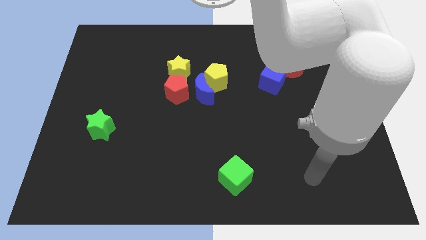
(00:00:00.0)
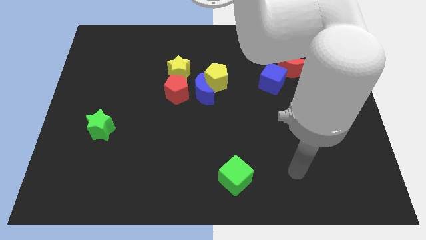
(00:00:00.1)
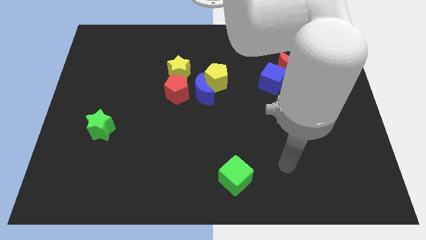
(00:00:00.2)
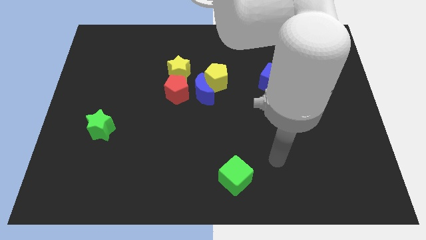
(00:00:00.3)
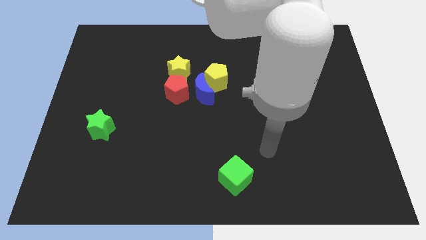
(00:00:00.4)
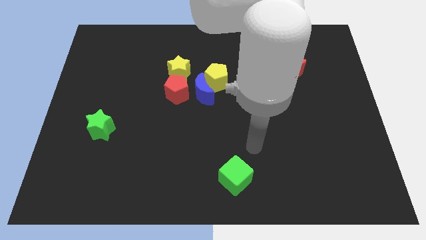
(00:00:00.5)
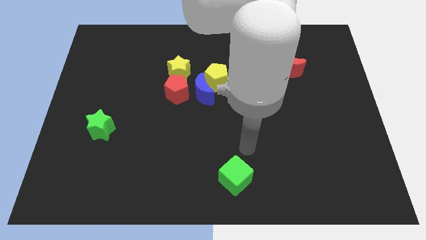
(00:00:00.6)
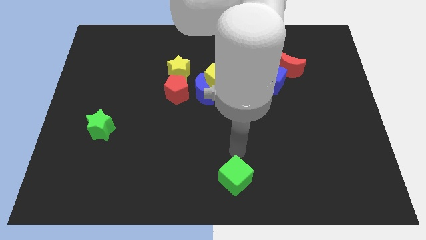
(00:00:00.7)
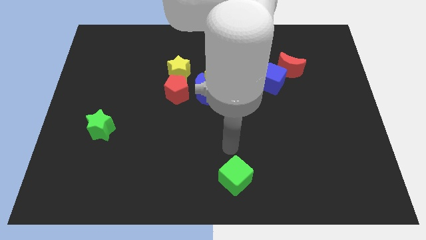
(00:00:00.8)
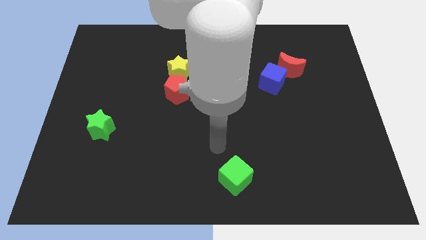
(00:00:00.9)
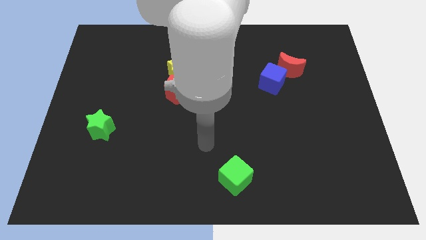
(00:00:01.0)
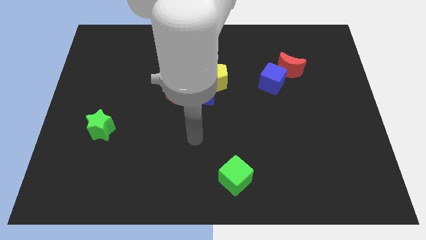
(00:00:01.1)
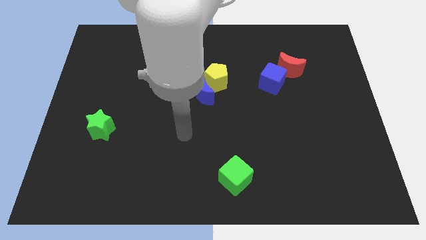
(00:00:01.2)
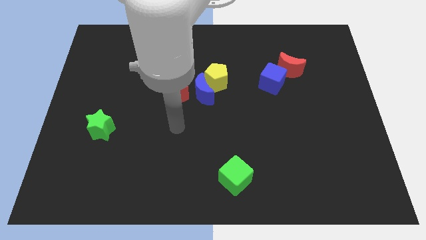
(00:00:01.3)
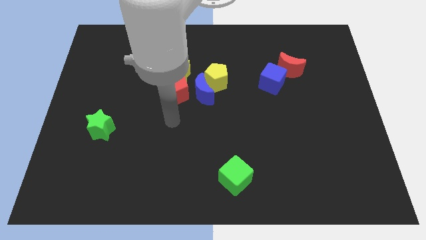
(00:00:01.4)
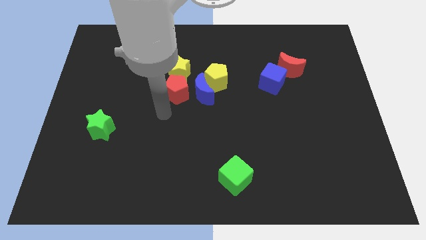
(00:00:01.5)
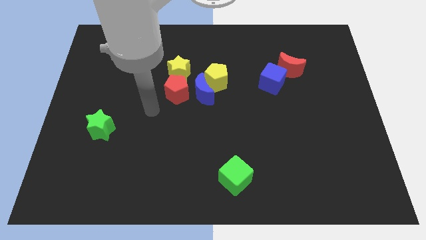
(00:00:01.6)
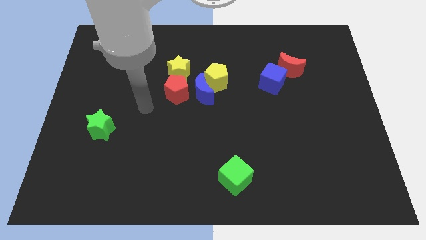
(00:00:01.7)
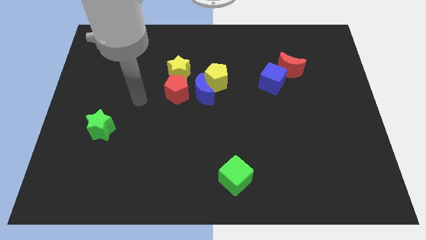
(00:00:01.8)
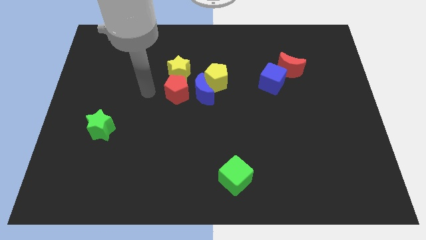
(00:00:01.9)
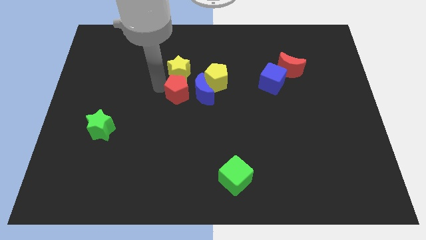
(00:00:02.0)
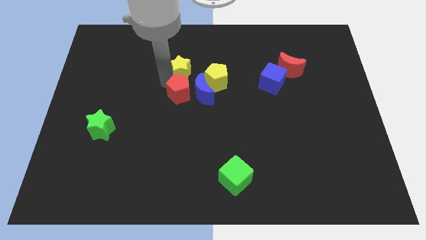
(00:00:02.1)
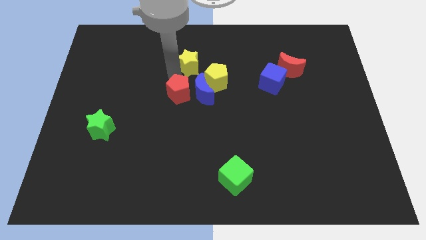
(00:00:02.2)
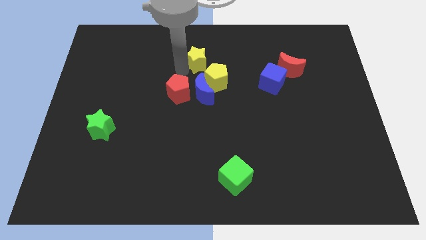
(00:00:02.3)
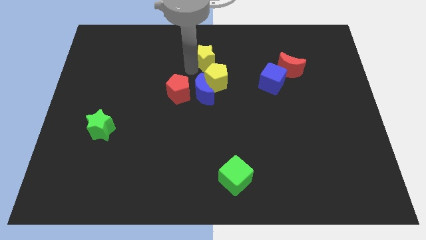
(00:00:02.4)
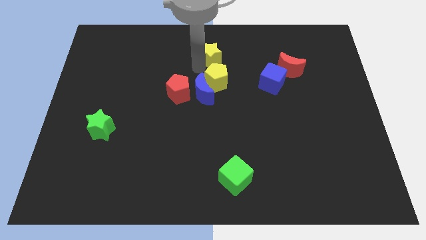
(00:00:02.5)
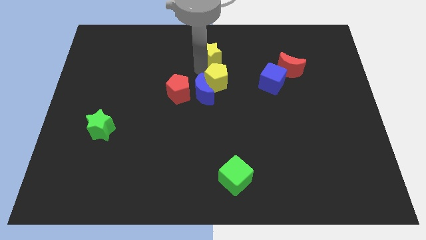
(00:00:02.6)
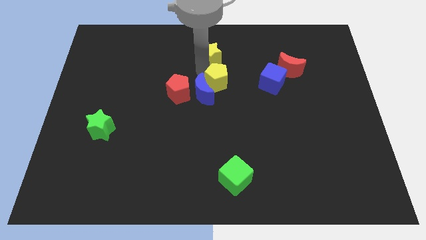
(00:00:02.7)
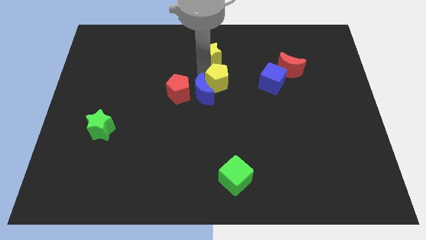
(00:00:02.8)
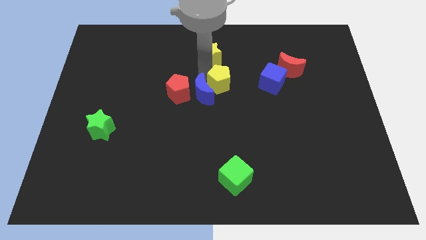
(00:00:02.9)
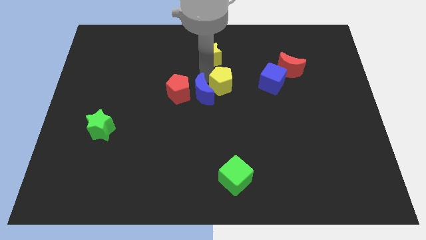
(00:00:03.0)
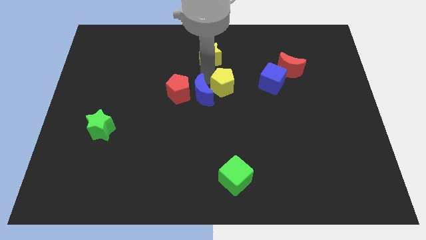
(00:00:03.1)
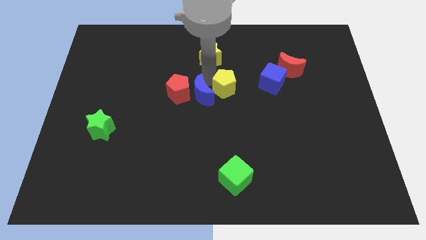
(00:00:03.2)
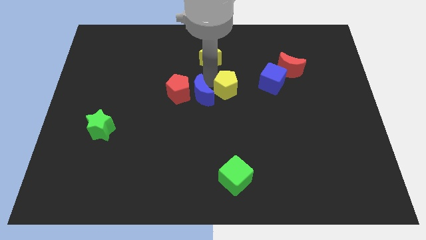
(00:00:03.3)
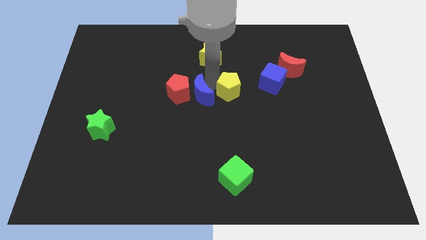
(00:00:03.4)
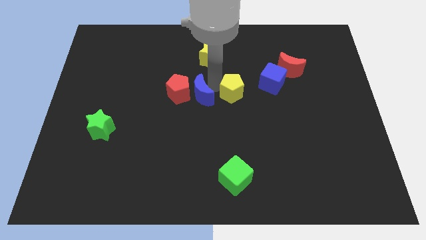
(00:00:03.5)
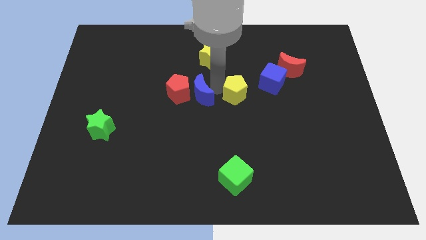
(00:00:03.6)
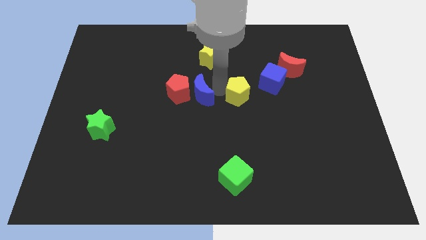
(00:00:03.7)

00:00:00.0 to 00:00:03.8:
slightly push the yellow pentagon downwards and to the right diagonally

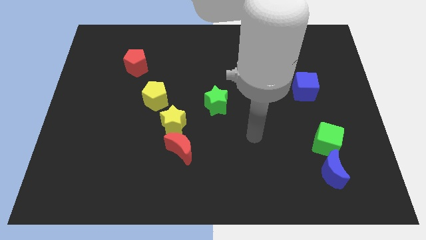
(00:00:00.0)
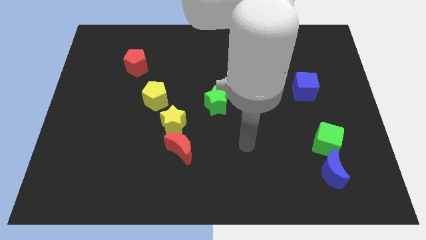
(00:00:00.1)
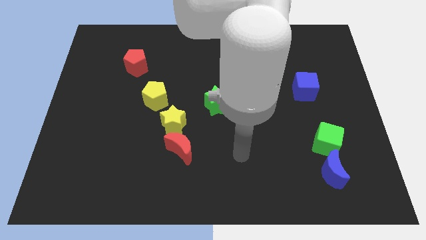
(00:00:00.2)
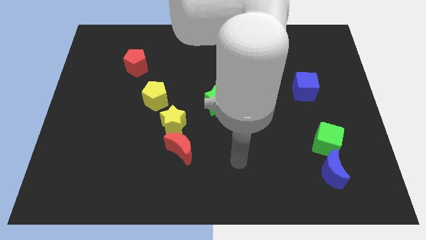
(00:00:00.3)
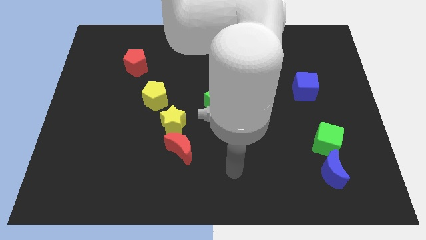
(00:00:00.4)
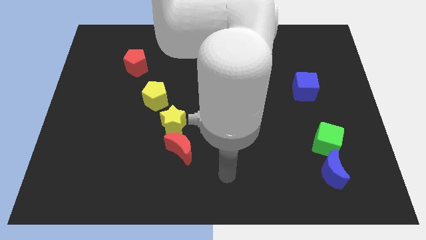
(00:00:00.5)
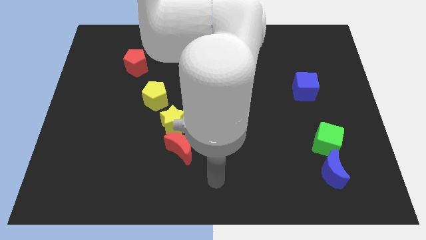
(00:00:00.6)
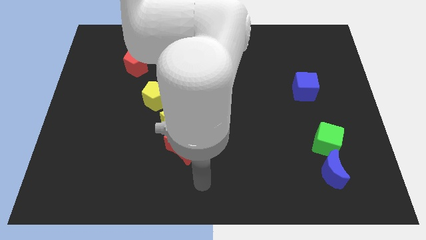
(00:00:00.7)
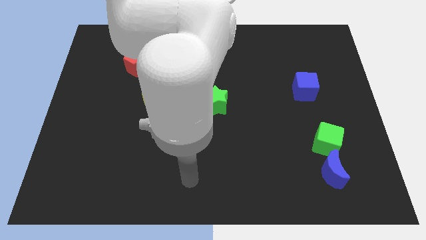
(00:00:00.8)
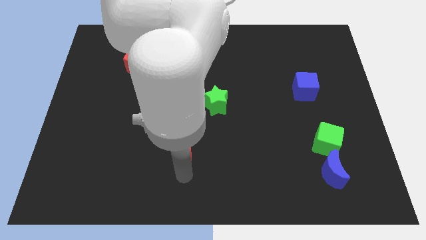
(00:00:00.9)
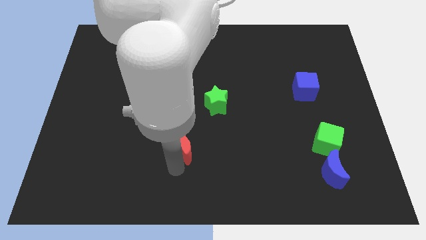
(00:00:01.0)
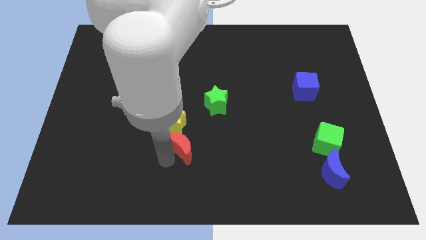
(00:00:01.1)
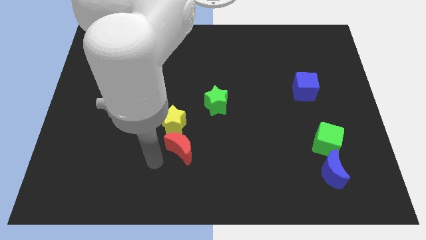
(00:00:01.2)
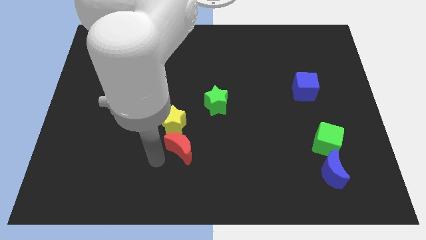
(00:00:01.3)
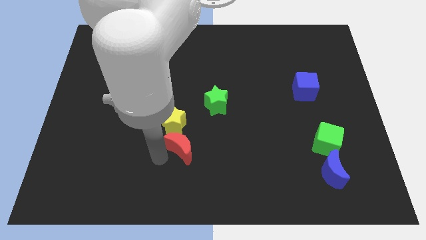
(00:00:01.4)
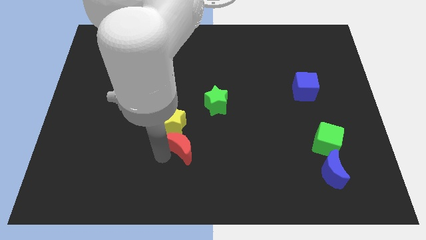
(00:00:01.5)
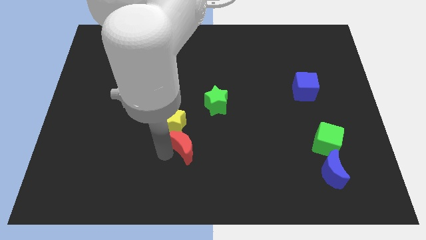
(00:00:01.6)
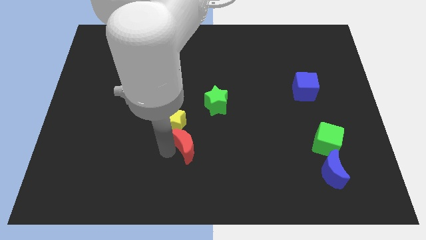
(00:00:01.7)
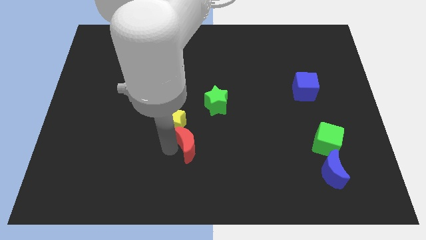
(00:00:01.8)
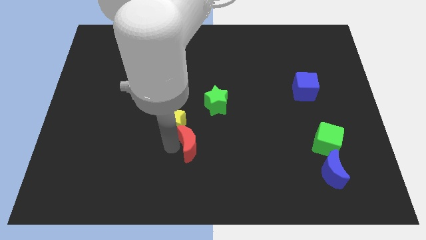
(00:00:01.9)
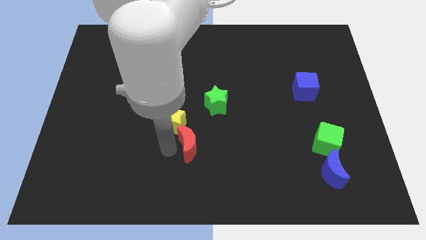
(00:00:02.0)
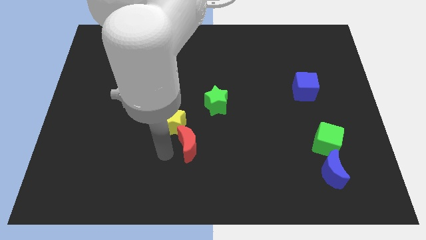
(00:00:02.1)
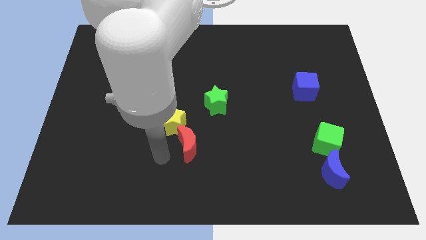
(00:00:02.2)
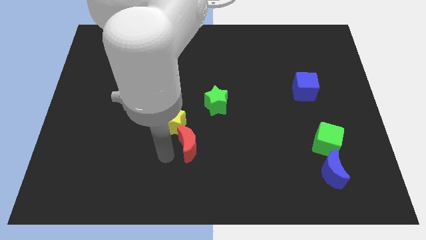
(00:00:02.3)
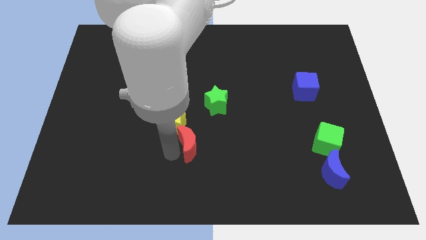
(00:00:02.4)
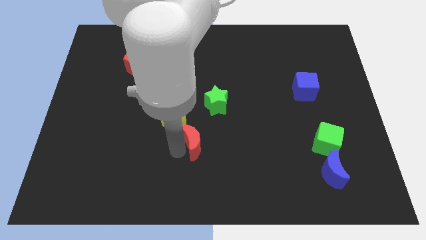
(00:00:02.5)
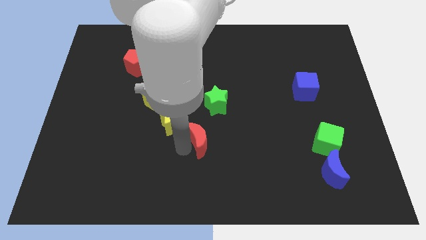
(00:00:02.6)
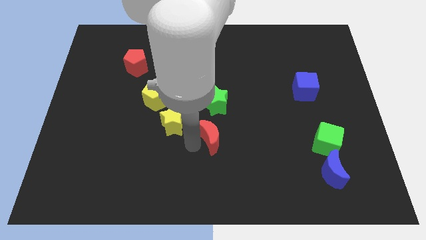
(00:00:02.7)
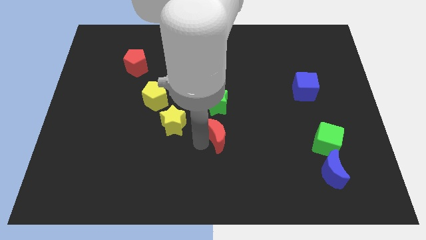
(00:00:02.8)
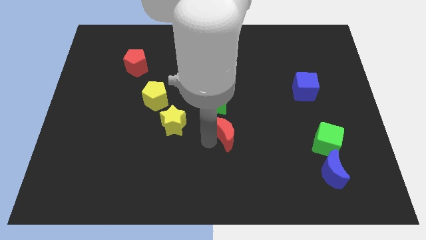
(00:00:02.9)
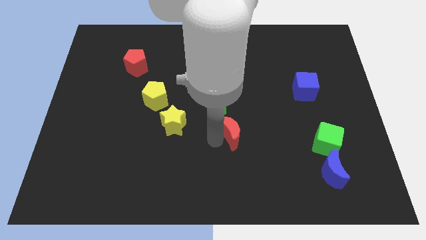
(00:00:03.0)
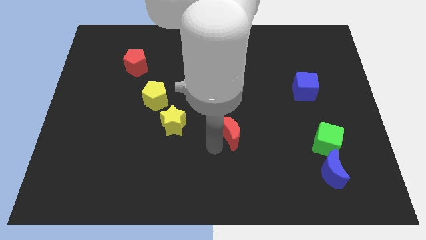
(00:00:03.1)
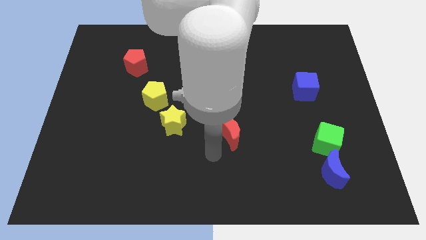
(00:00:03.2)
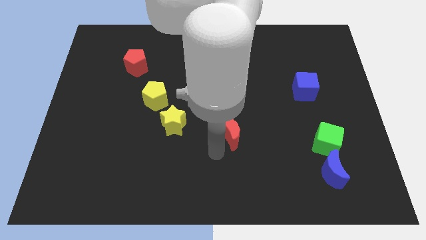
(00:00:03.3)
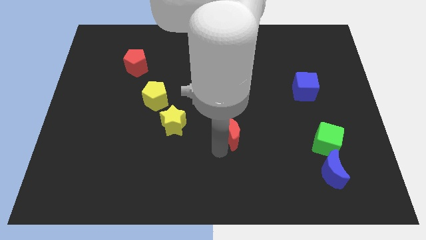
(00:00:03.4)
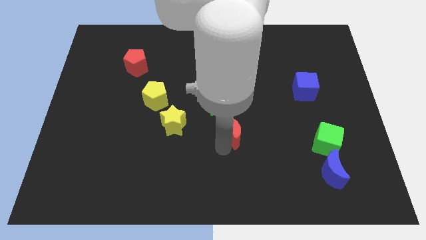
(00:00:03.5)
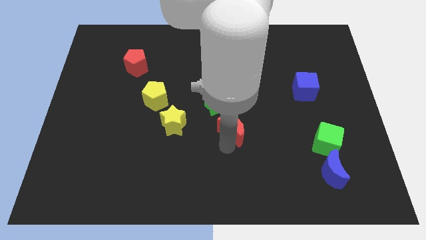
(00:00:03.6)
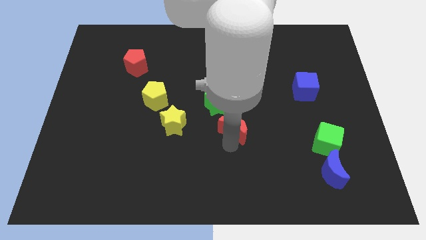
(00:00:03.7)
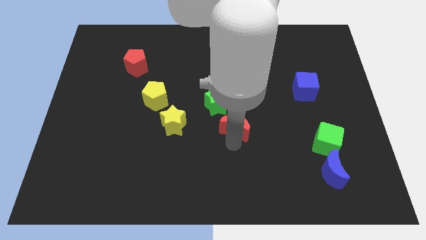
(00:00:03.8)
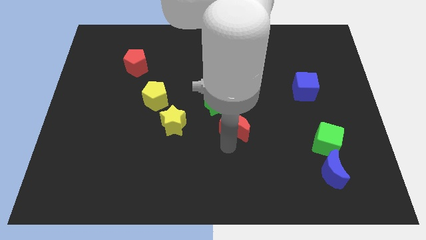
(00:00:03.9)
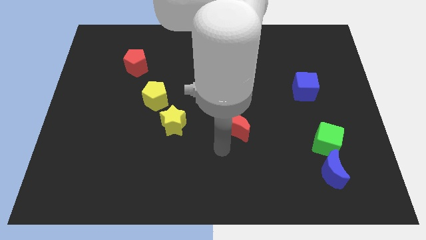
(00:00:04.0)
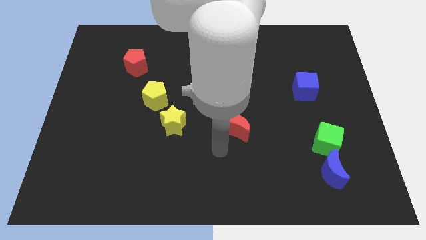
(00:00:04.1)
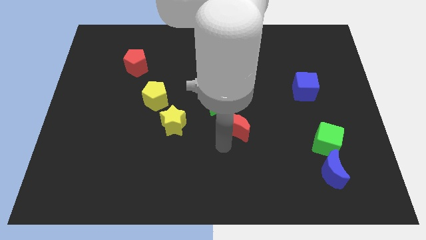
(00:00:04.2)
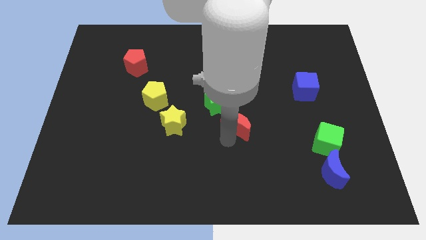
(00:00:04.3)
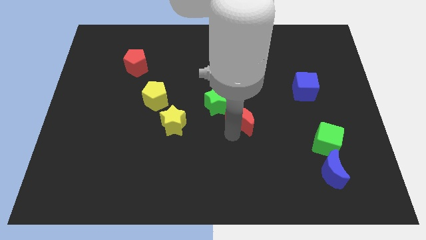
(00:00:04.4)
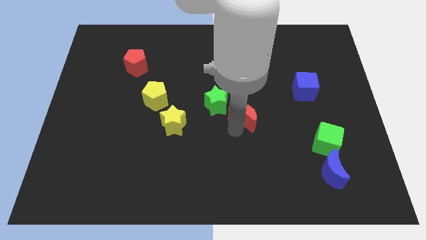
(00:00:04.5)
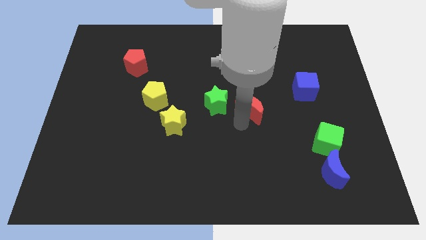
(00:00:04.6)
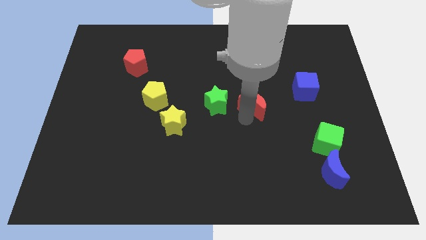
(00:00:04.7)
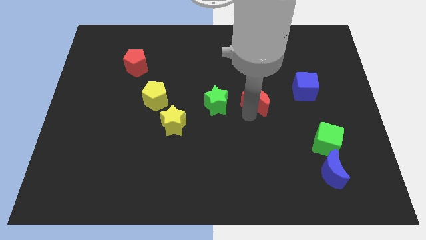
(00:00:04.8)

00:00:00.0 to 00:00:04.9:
move the red moon diagonally upwards and right
